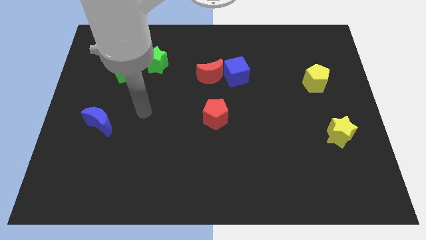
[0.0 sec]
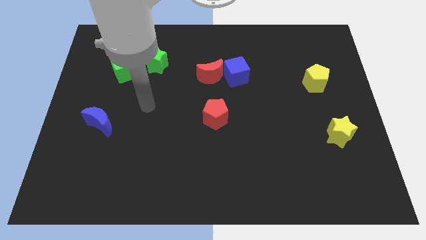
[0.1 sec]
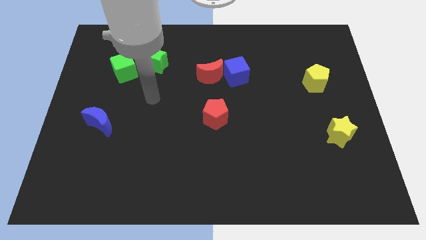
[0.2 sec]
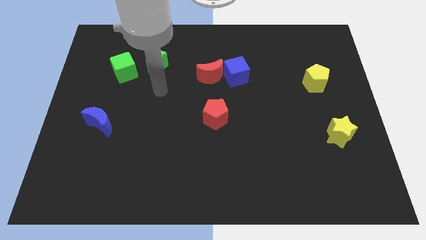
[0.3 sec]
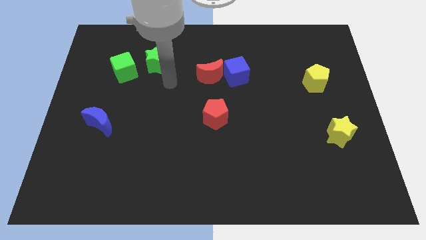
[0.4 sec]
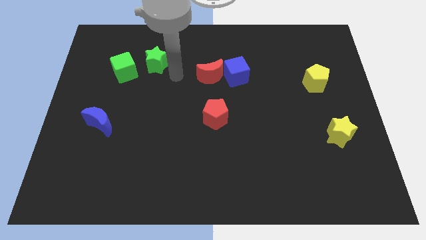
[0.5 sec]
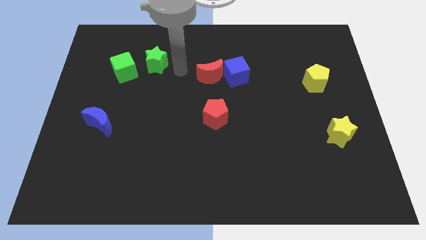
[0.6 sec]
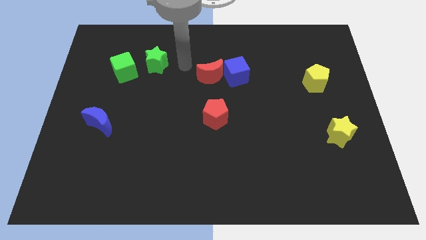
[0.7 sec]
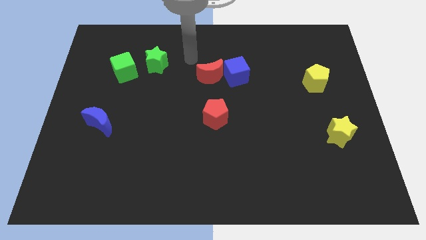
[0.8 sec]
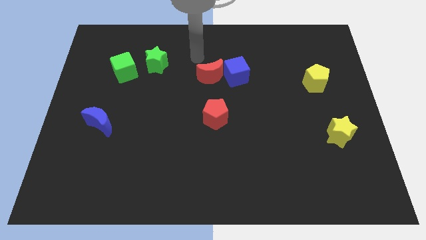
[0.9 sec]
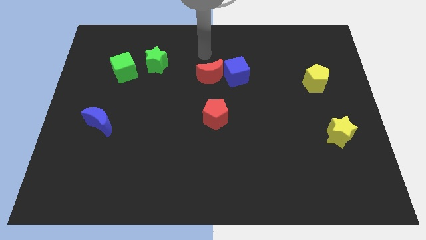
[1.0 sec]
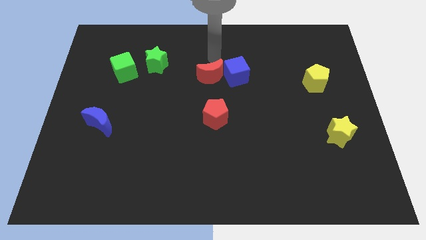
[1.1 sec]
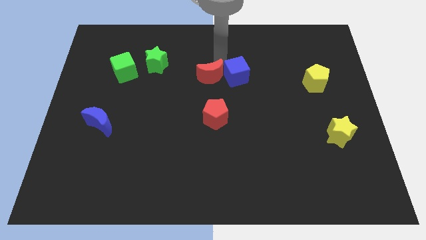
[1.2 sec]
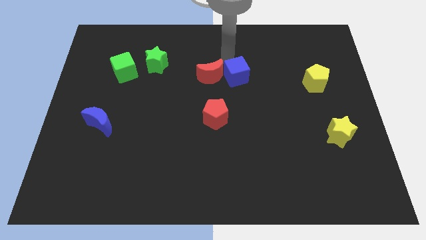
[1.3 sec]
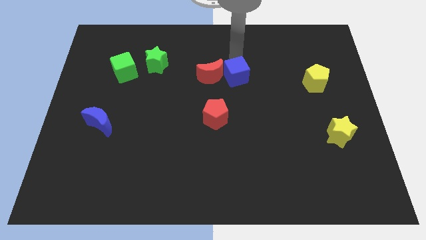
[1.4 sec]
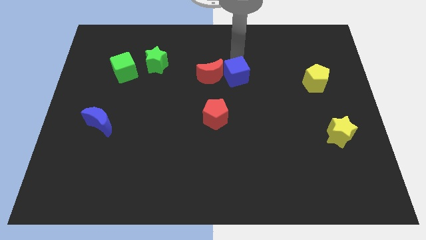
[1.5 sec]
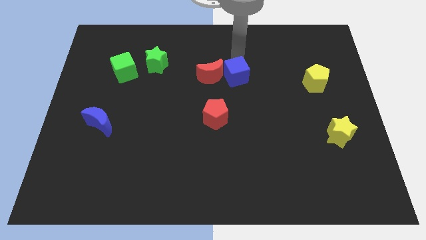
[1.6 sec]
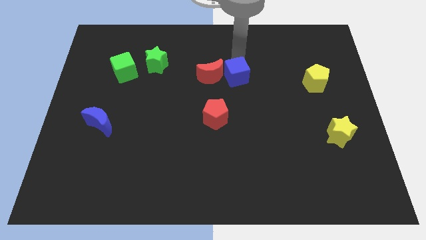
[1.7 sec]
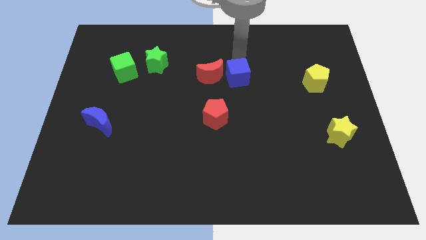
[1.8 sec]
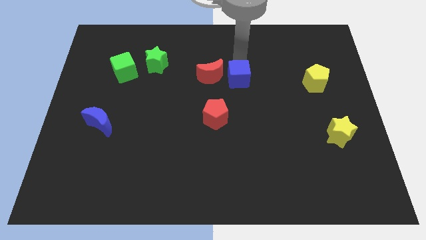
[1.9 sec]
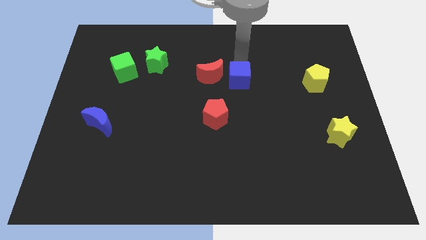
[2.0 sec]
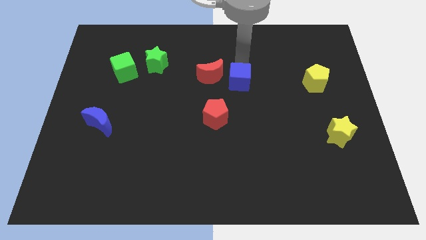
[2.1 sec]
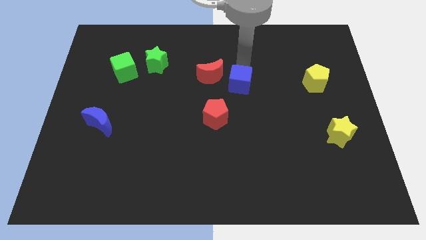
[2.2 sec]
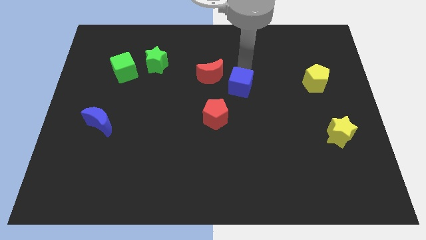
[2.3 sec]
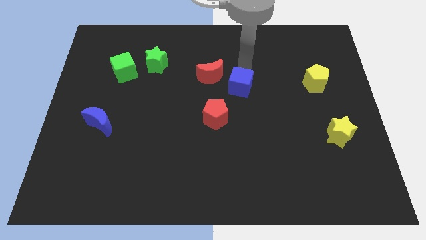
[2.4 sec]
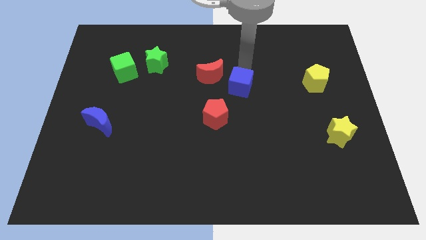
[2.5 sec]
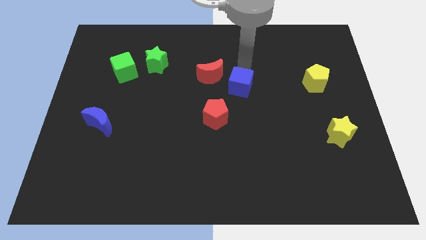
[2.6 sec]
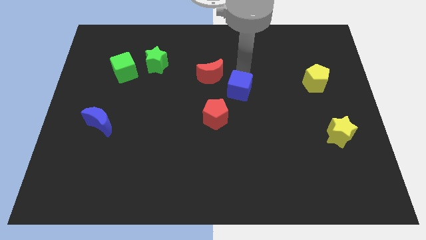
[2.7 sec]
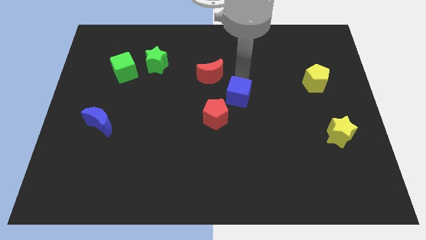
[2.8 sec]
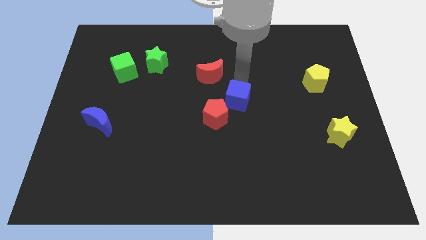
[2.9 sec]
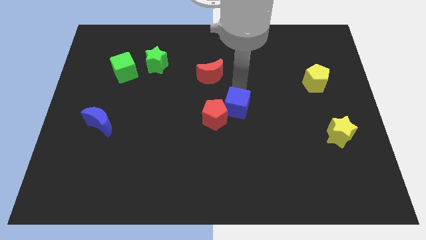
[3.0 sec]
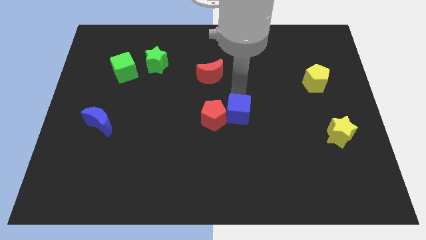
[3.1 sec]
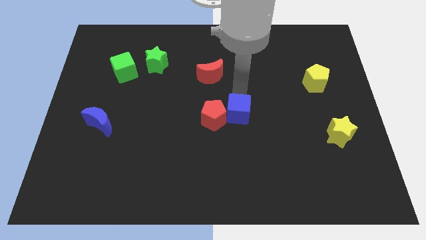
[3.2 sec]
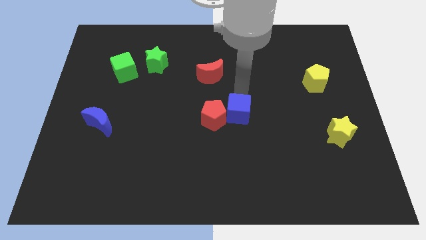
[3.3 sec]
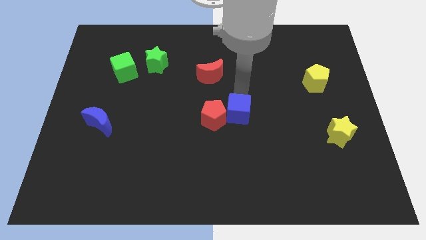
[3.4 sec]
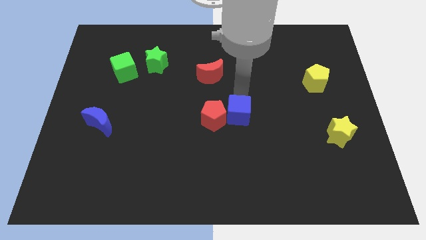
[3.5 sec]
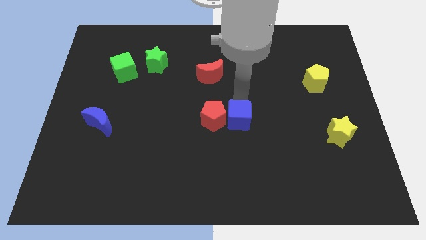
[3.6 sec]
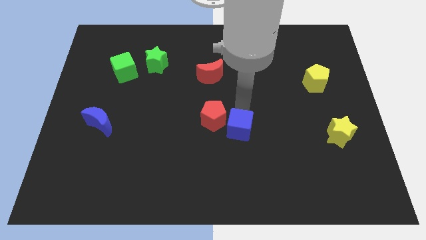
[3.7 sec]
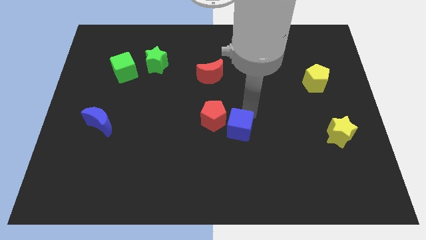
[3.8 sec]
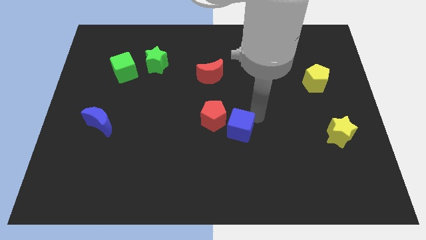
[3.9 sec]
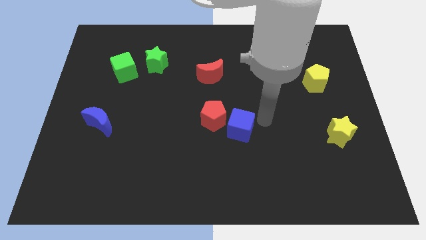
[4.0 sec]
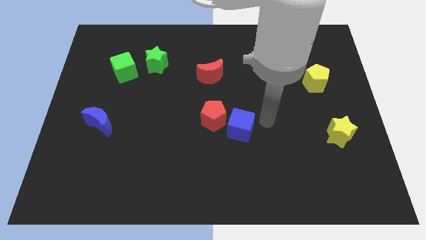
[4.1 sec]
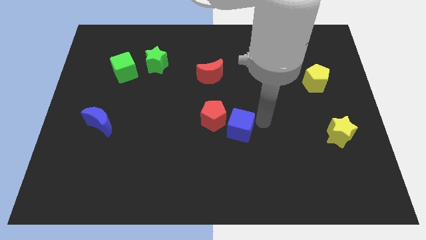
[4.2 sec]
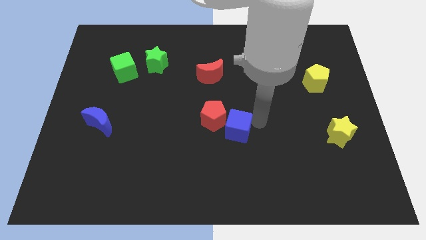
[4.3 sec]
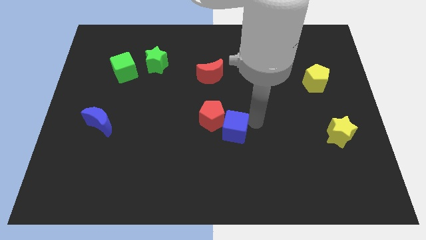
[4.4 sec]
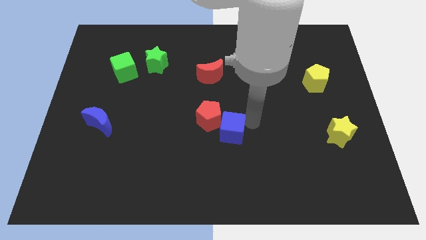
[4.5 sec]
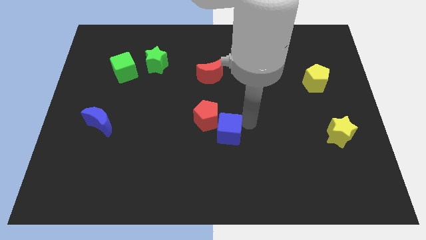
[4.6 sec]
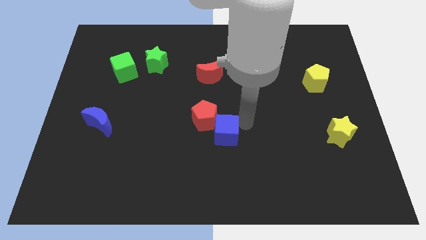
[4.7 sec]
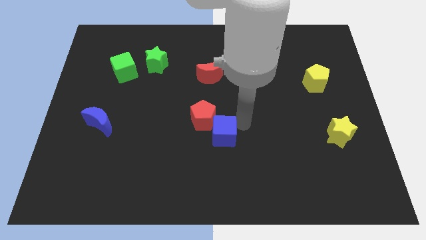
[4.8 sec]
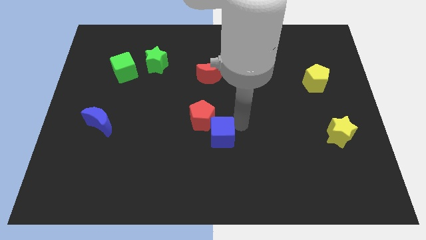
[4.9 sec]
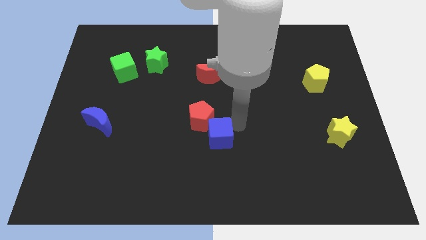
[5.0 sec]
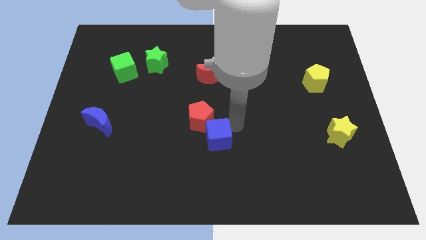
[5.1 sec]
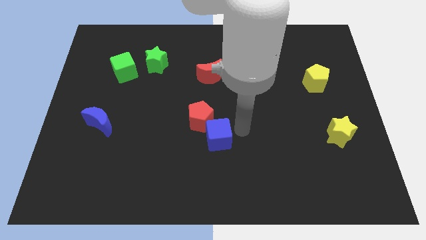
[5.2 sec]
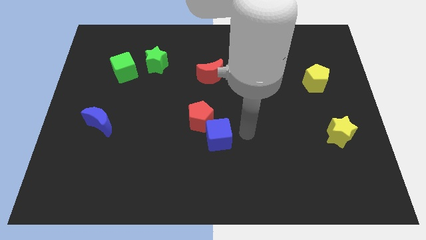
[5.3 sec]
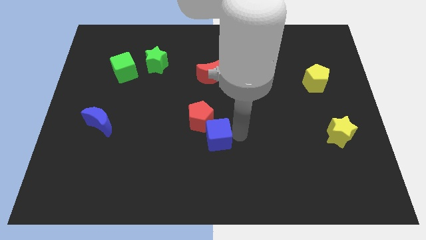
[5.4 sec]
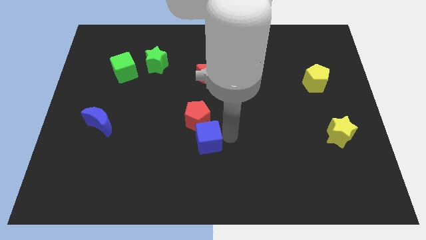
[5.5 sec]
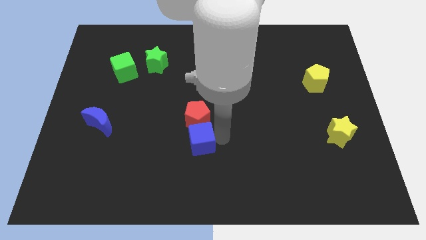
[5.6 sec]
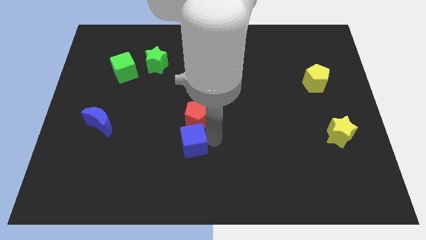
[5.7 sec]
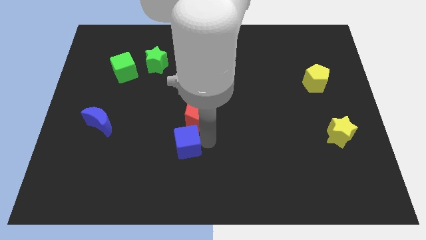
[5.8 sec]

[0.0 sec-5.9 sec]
push the blue cube downwards and then to the left

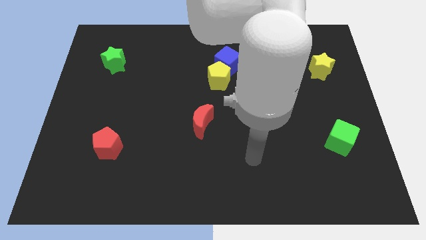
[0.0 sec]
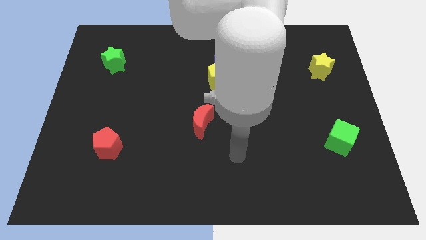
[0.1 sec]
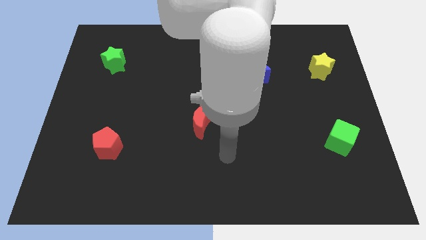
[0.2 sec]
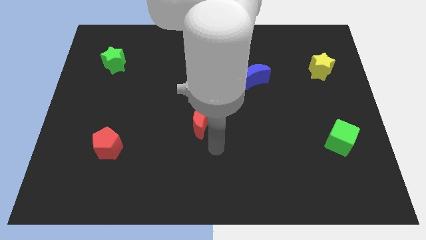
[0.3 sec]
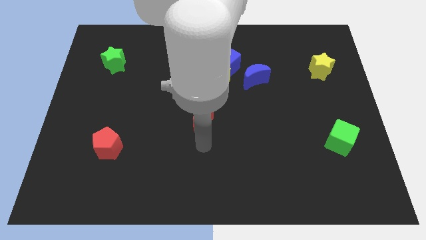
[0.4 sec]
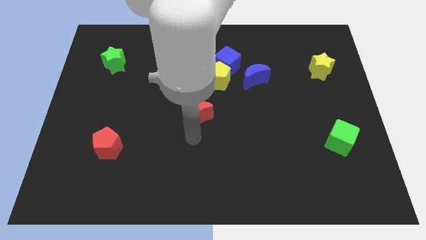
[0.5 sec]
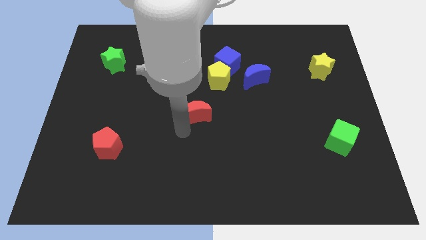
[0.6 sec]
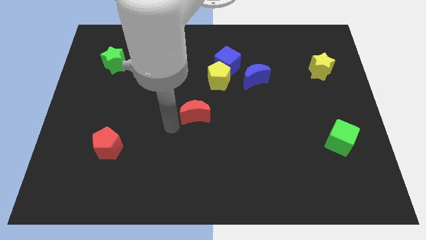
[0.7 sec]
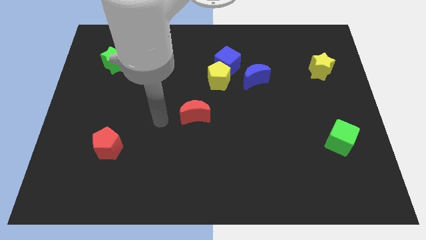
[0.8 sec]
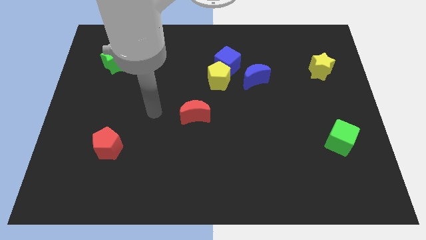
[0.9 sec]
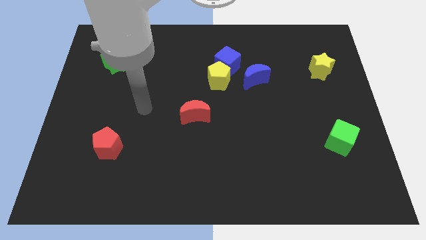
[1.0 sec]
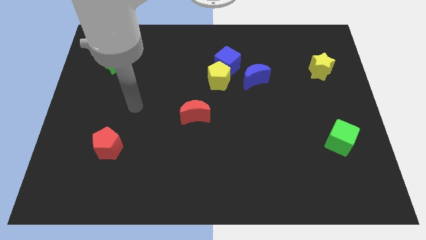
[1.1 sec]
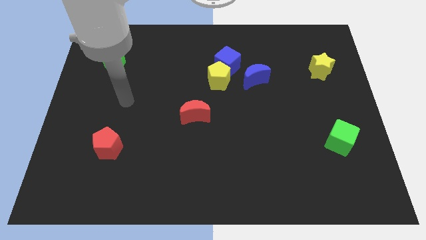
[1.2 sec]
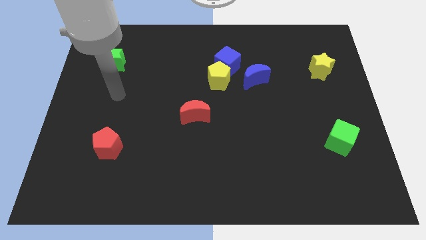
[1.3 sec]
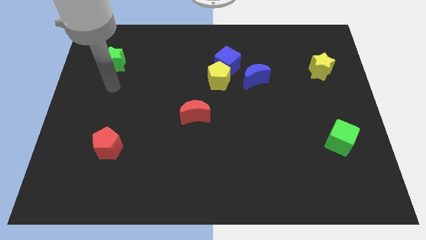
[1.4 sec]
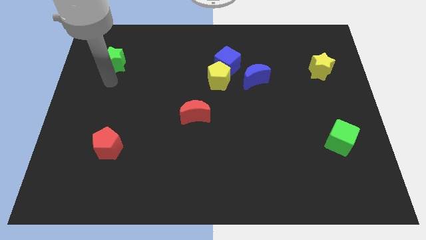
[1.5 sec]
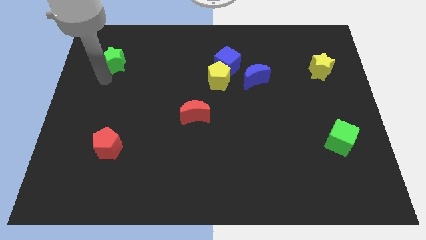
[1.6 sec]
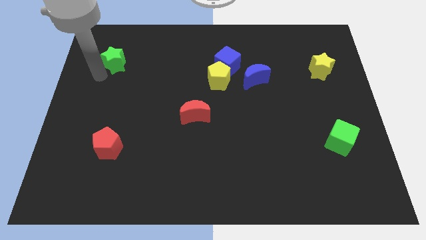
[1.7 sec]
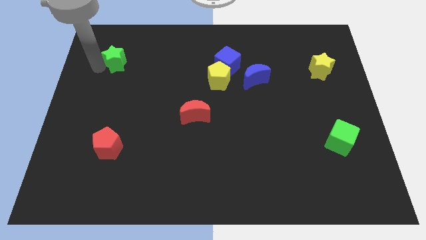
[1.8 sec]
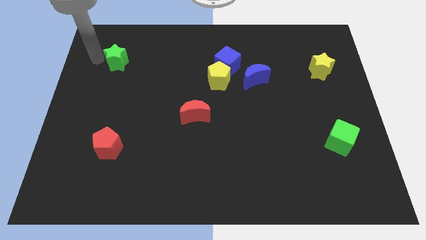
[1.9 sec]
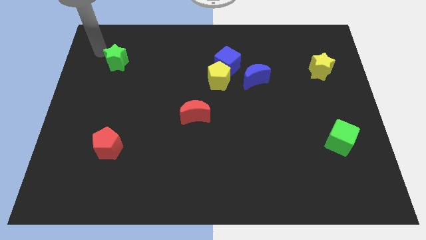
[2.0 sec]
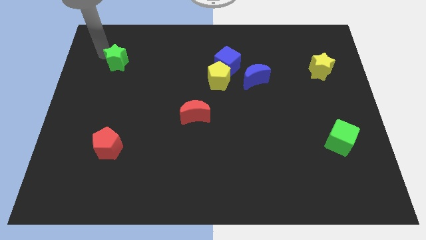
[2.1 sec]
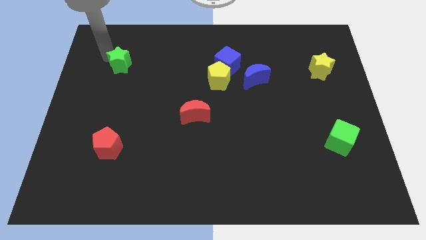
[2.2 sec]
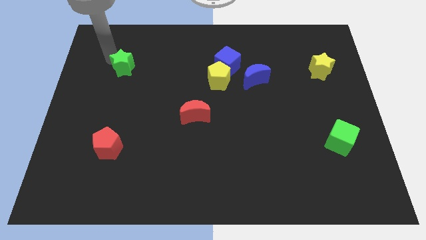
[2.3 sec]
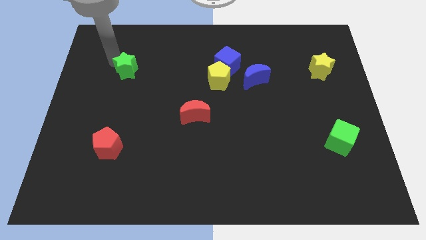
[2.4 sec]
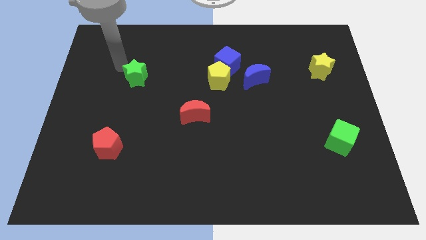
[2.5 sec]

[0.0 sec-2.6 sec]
move the green star somewhat down and then right
